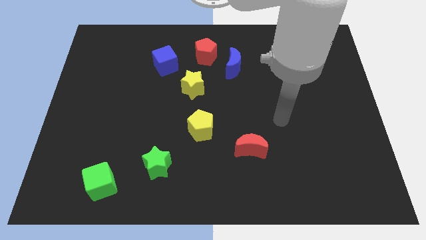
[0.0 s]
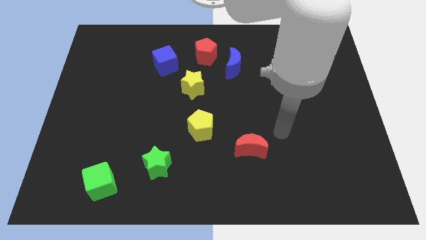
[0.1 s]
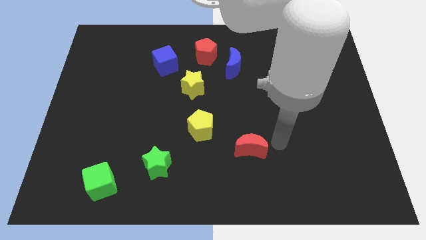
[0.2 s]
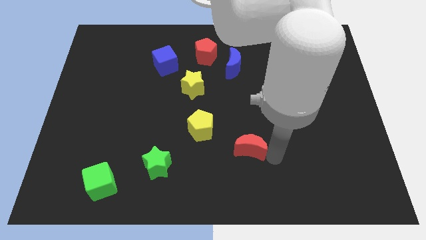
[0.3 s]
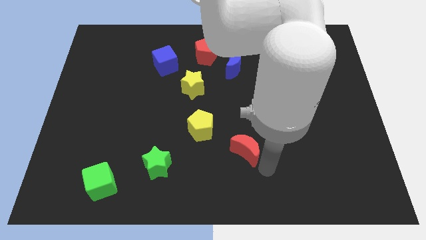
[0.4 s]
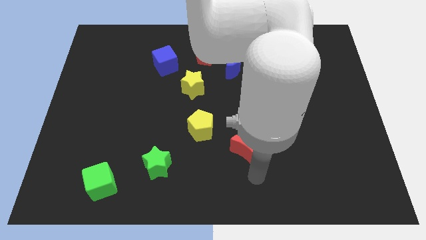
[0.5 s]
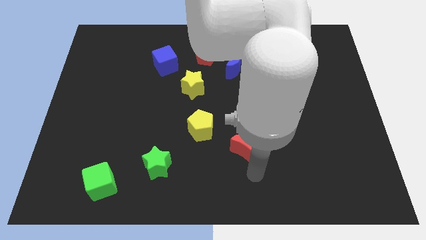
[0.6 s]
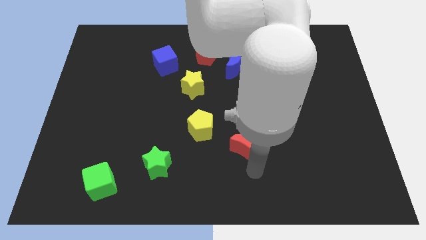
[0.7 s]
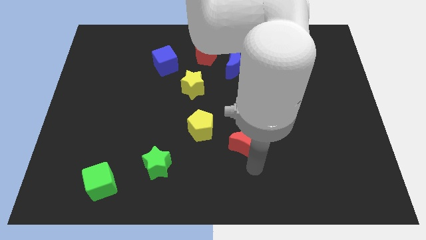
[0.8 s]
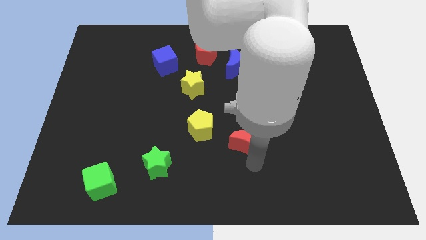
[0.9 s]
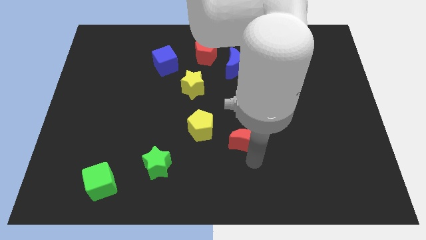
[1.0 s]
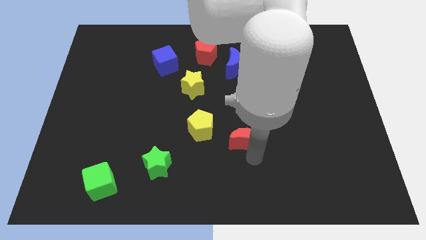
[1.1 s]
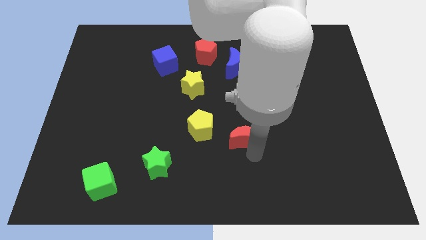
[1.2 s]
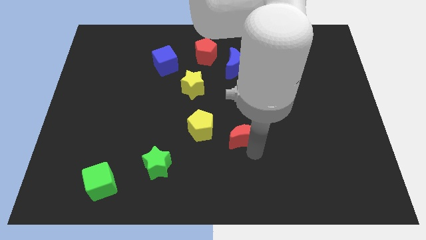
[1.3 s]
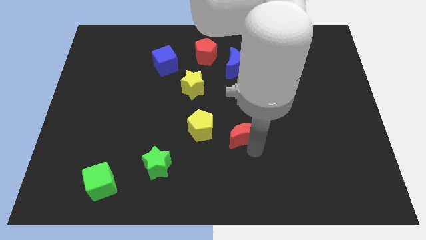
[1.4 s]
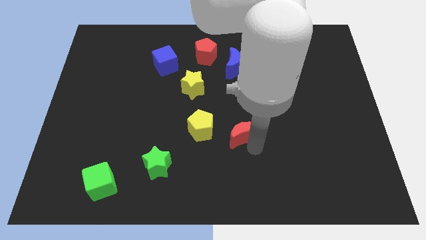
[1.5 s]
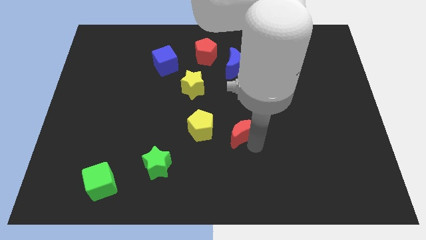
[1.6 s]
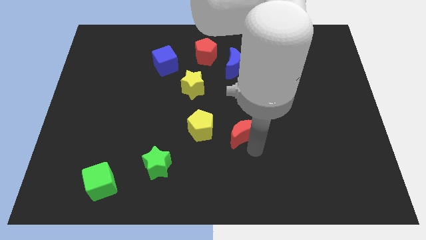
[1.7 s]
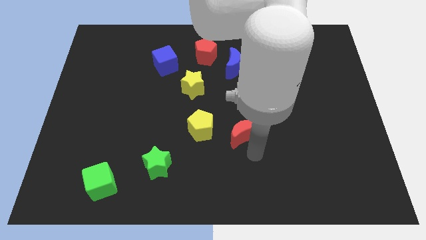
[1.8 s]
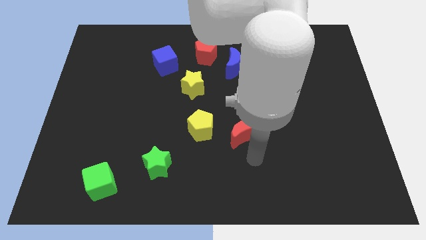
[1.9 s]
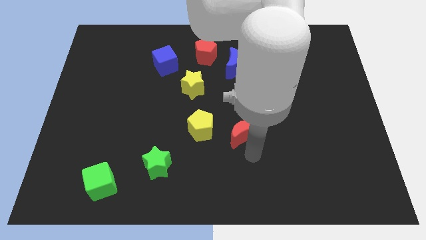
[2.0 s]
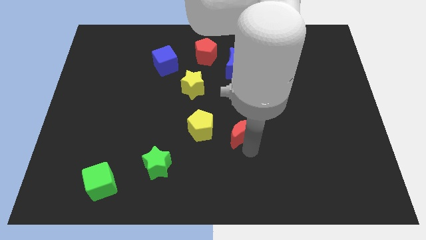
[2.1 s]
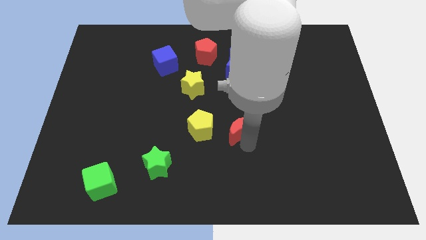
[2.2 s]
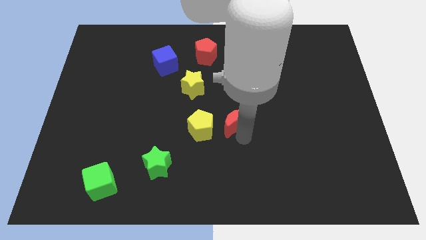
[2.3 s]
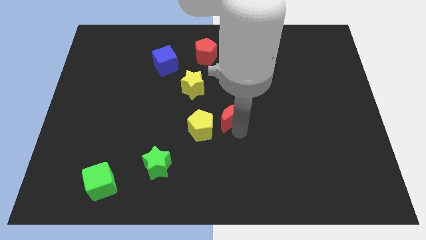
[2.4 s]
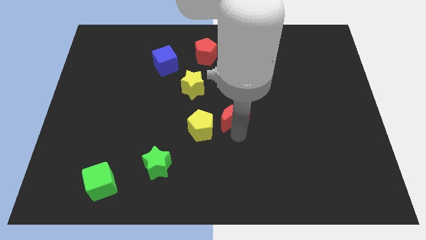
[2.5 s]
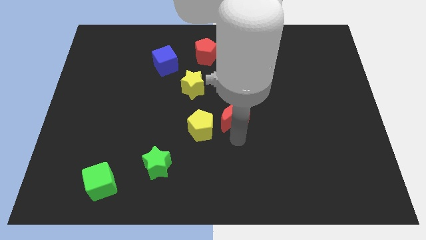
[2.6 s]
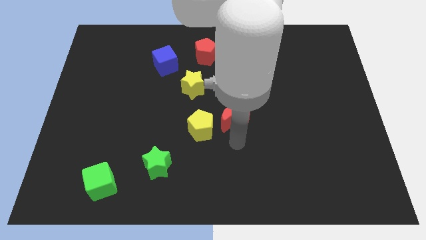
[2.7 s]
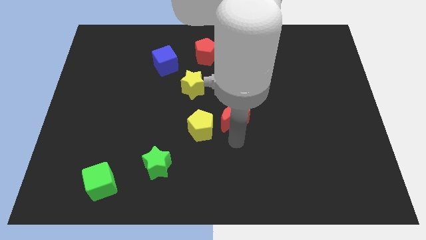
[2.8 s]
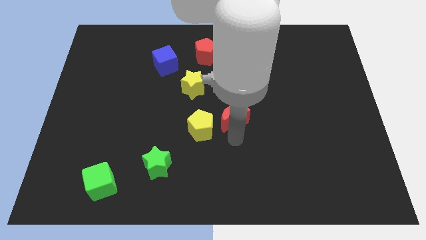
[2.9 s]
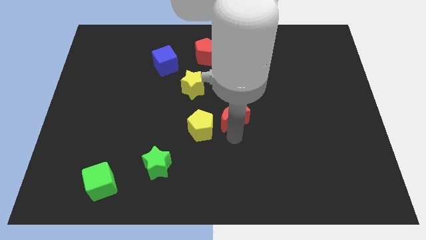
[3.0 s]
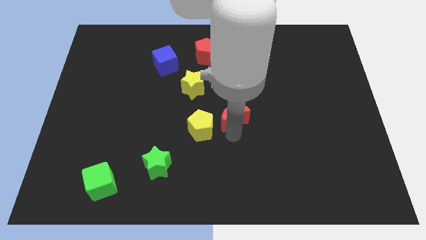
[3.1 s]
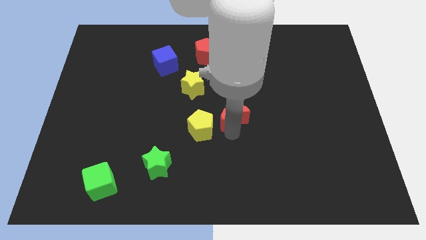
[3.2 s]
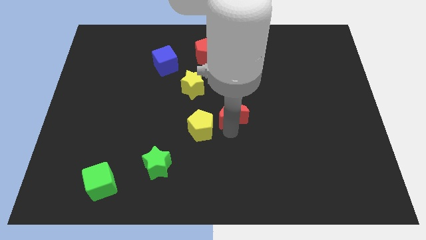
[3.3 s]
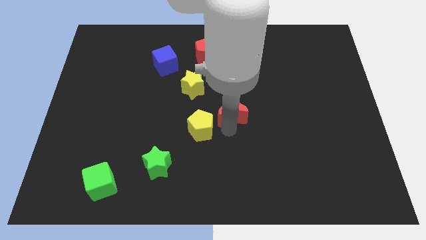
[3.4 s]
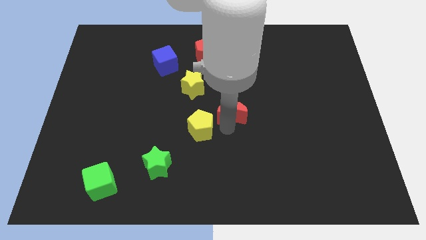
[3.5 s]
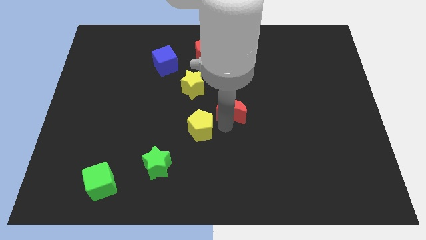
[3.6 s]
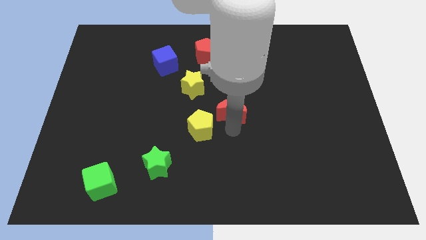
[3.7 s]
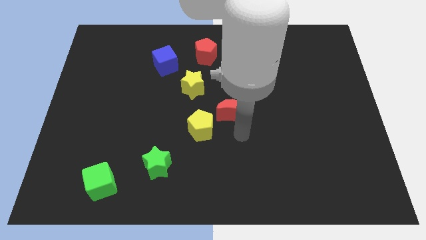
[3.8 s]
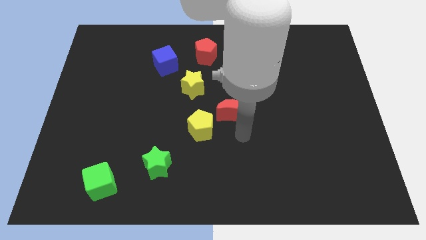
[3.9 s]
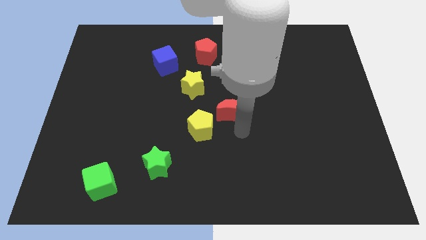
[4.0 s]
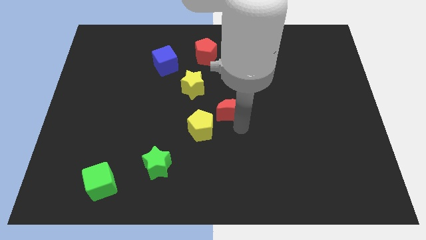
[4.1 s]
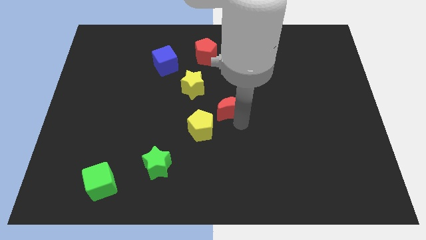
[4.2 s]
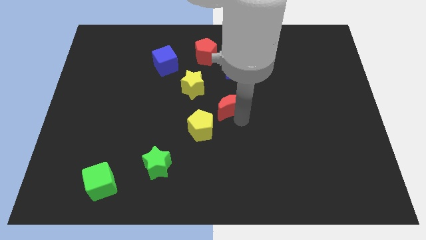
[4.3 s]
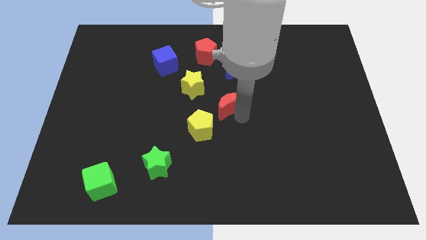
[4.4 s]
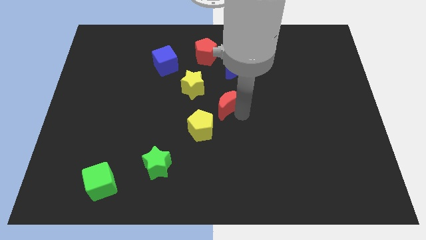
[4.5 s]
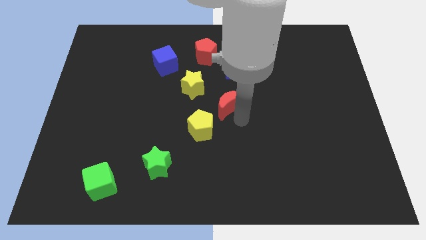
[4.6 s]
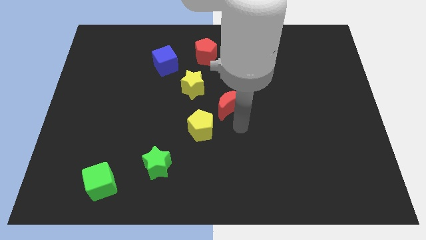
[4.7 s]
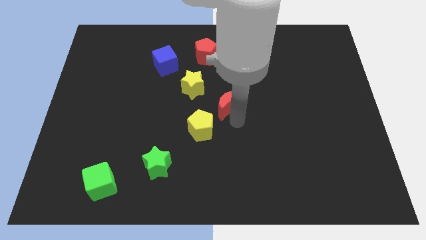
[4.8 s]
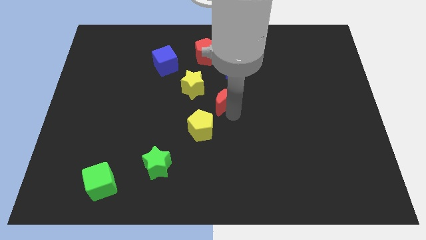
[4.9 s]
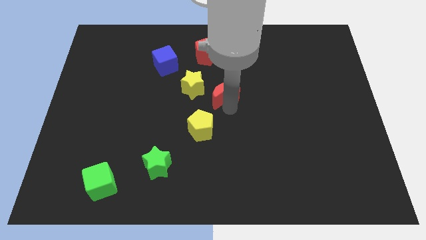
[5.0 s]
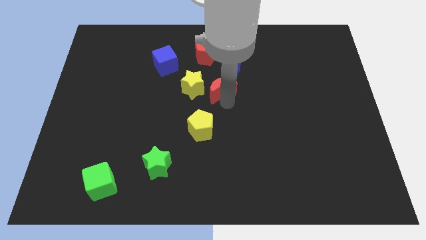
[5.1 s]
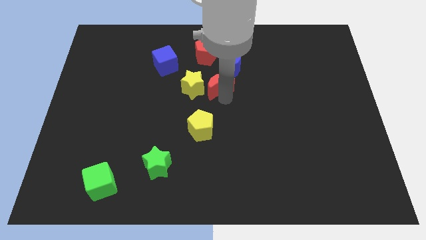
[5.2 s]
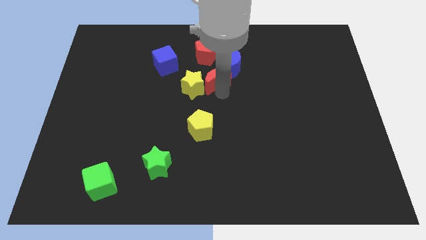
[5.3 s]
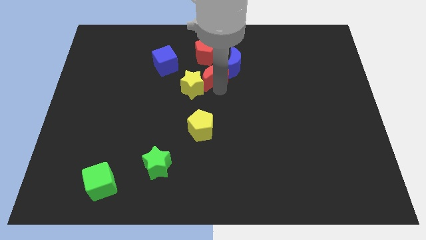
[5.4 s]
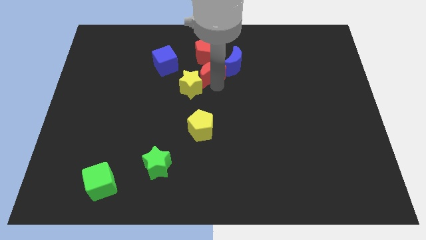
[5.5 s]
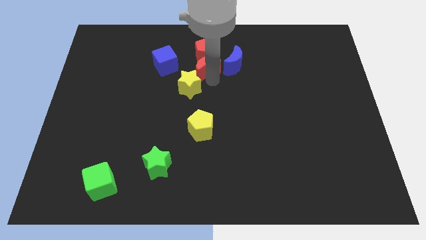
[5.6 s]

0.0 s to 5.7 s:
put the red moon close to the red pentagon

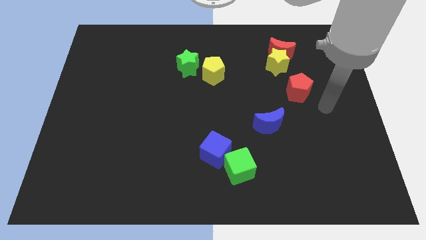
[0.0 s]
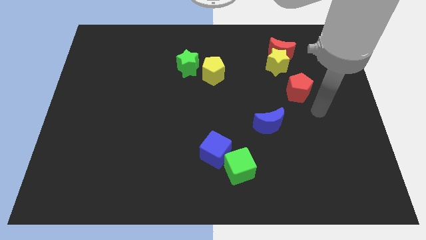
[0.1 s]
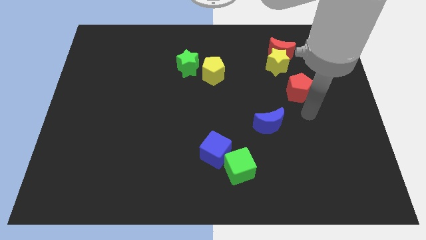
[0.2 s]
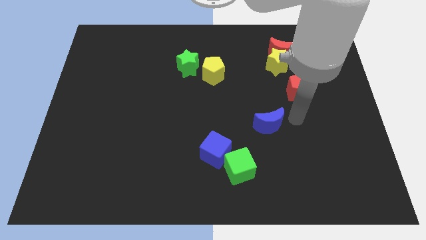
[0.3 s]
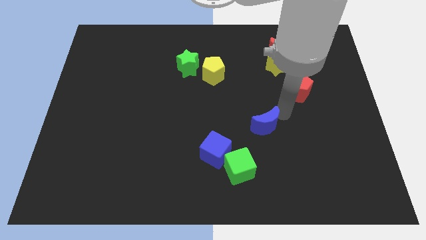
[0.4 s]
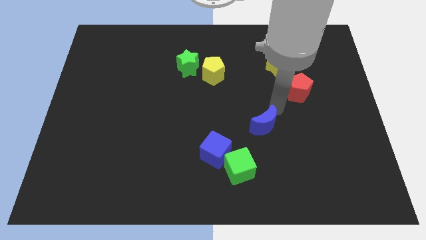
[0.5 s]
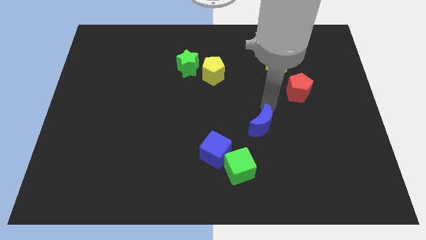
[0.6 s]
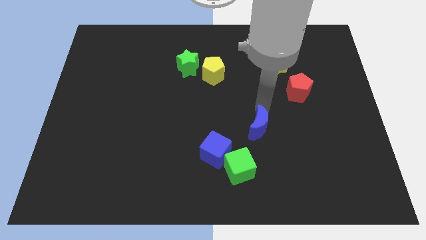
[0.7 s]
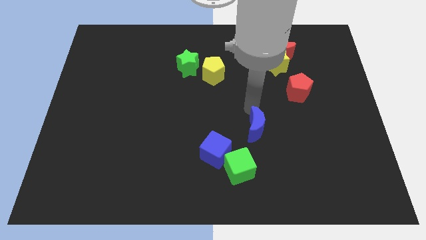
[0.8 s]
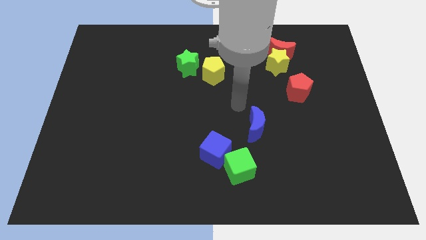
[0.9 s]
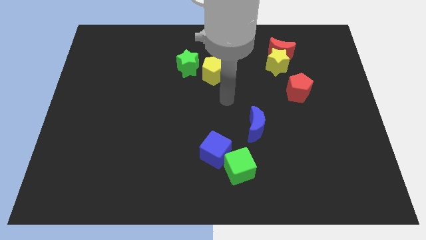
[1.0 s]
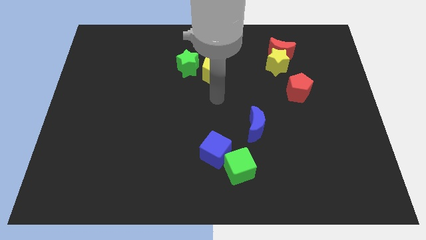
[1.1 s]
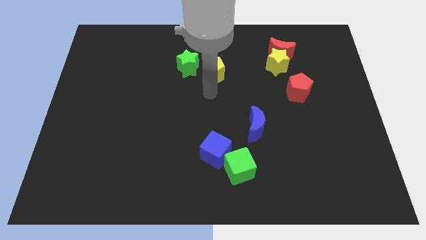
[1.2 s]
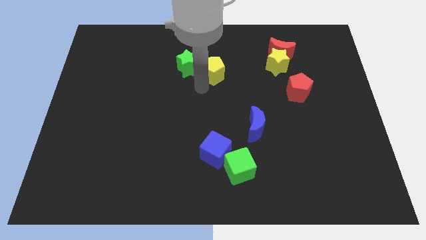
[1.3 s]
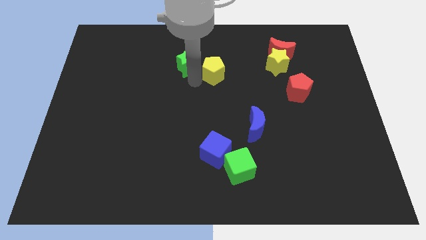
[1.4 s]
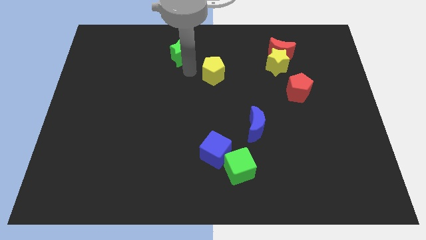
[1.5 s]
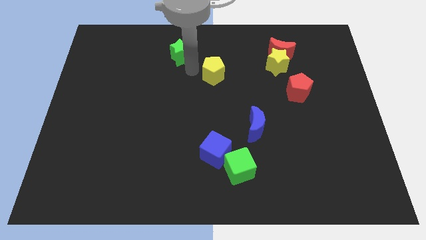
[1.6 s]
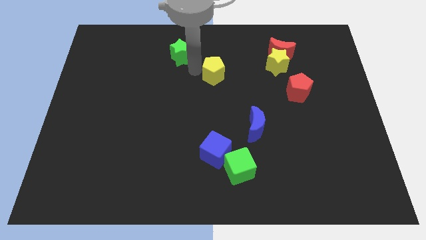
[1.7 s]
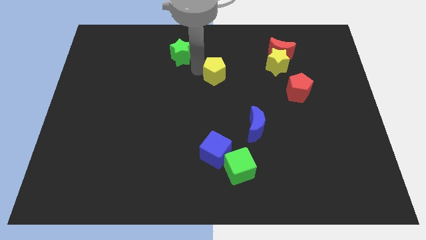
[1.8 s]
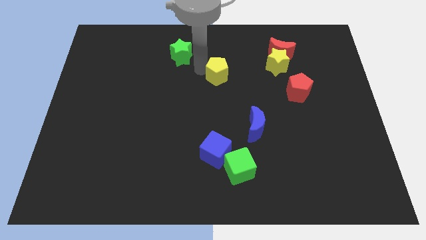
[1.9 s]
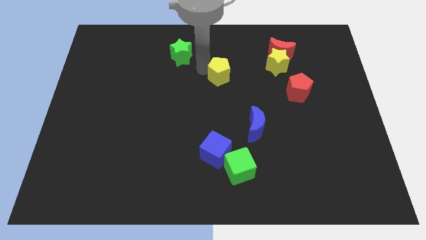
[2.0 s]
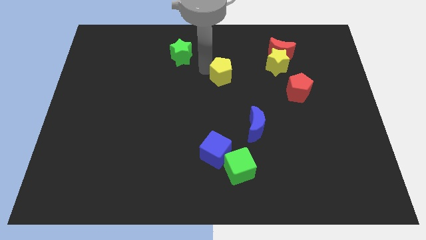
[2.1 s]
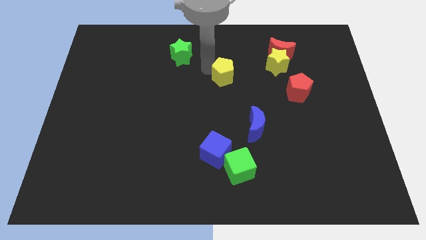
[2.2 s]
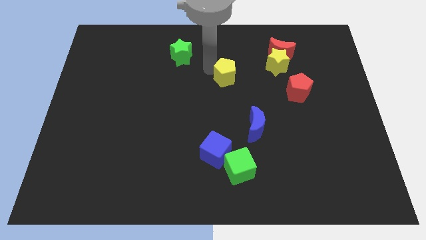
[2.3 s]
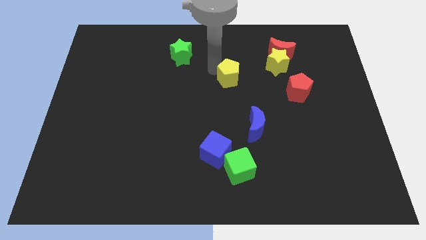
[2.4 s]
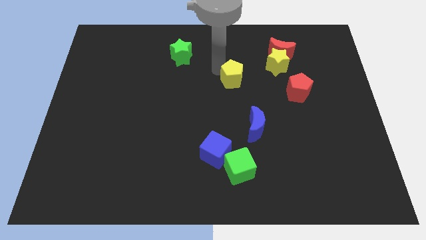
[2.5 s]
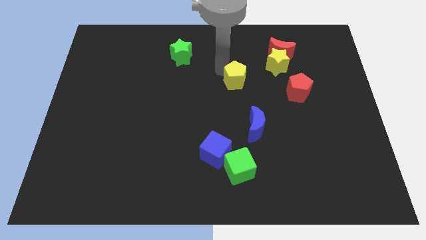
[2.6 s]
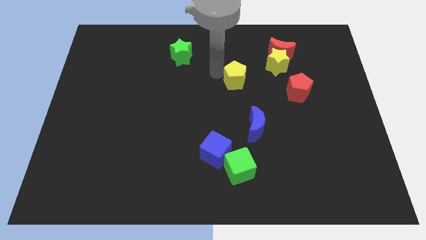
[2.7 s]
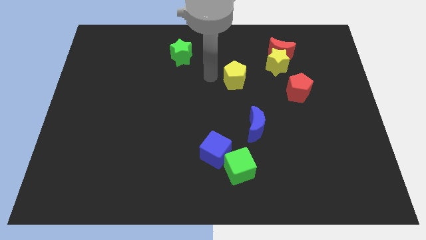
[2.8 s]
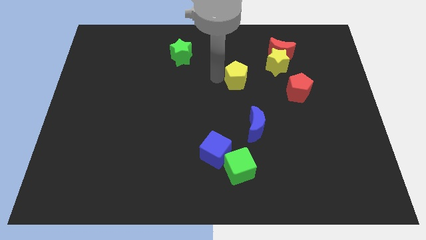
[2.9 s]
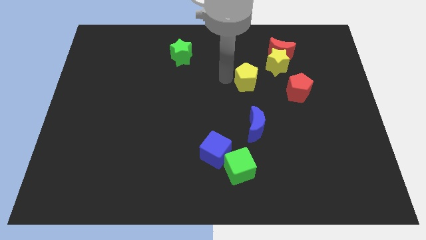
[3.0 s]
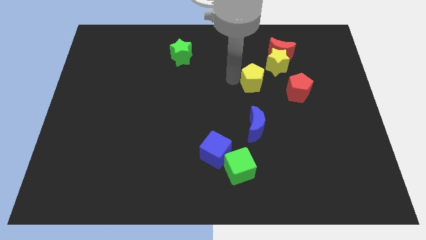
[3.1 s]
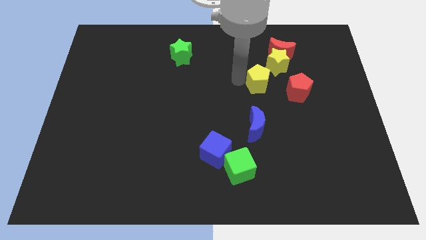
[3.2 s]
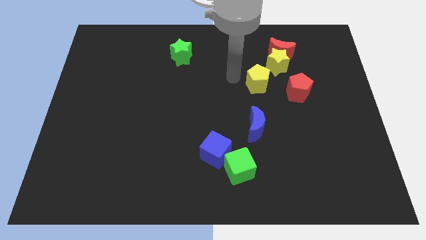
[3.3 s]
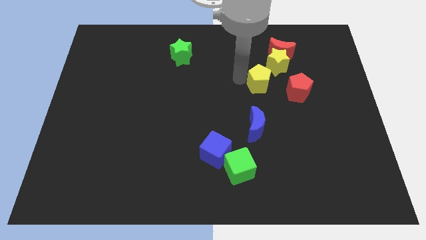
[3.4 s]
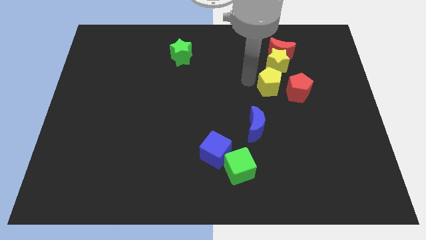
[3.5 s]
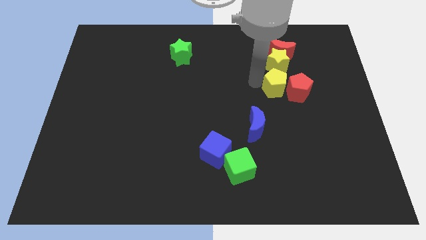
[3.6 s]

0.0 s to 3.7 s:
slide the yellow pentagon to the red pentagon
